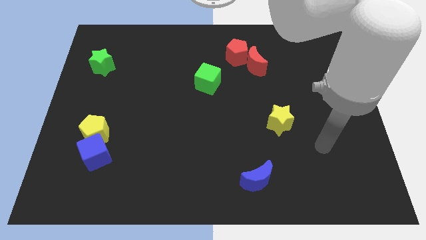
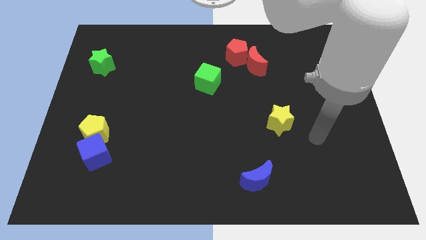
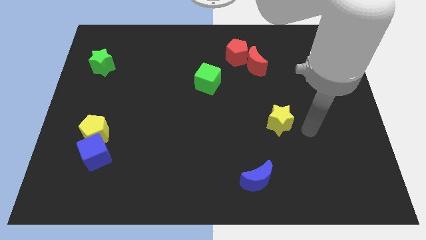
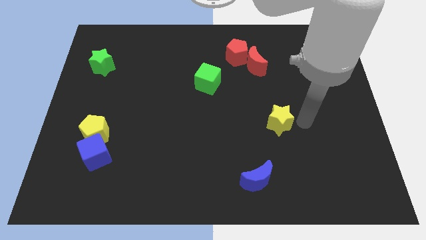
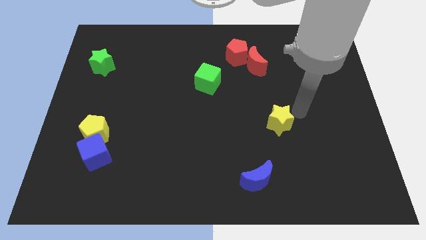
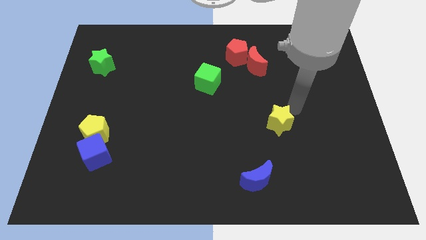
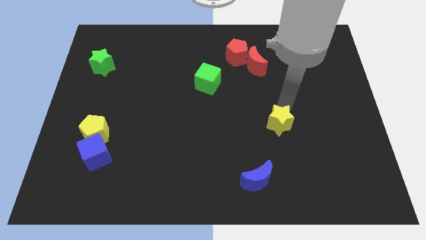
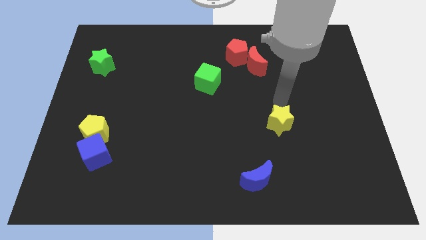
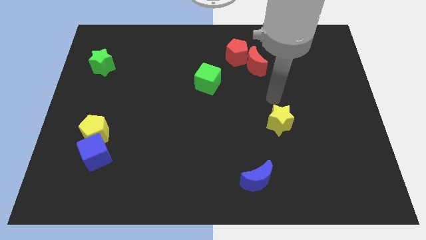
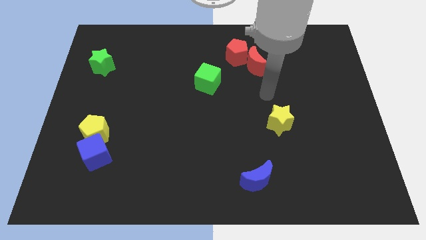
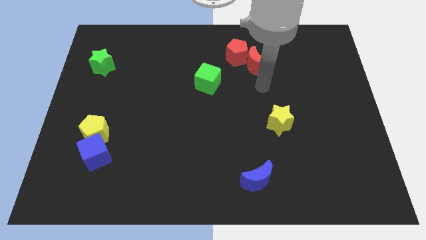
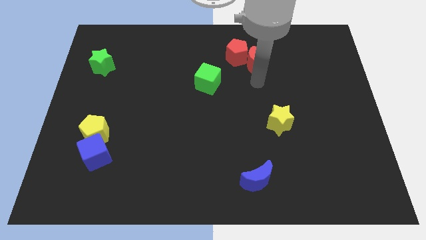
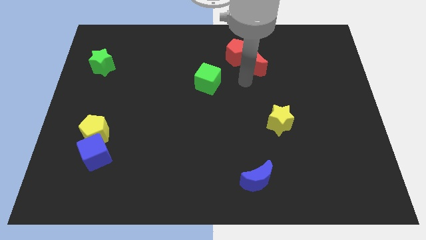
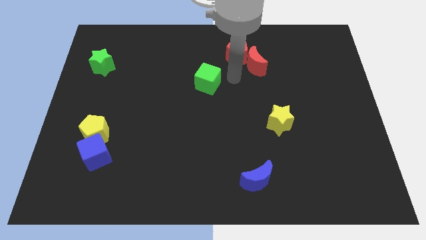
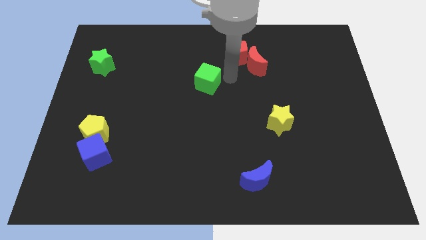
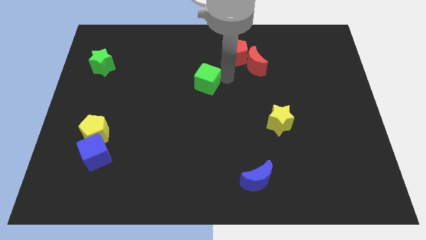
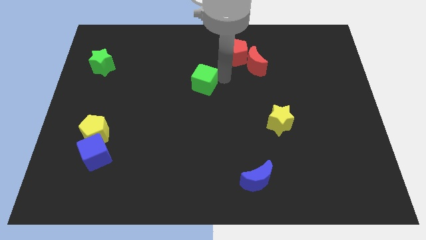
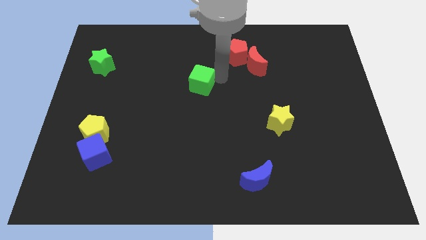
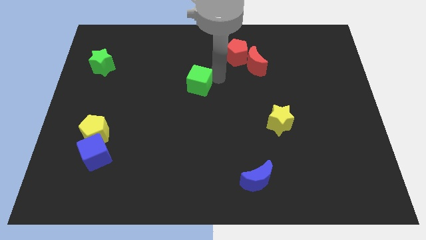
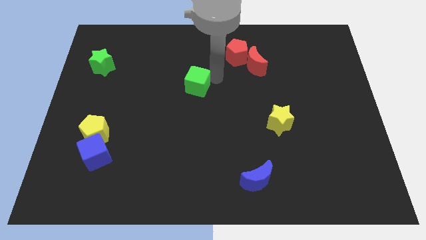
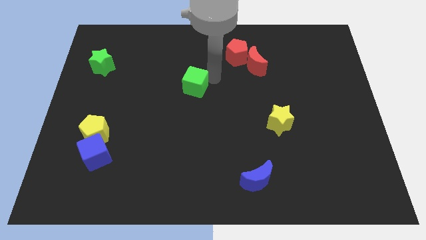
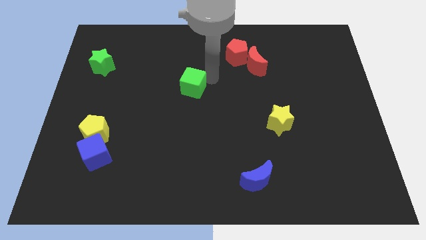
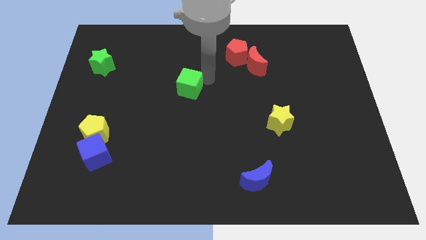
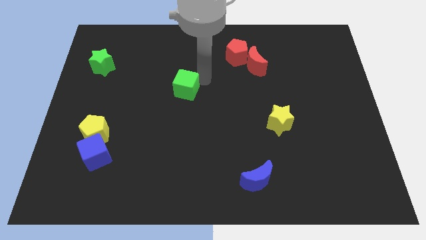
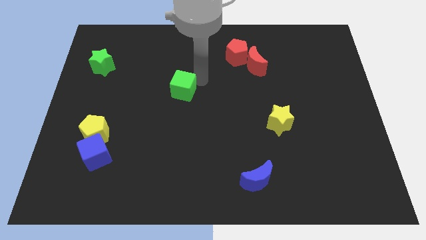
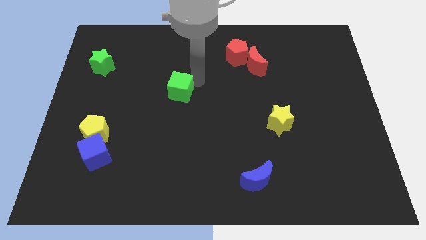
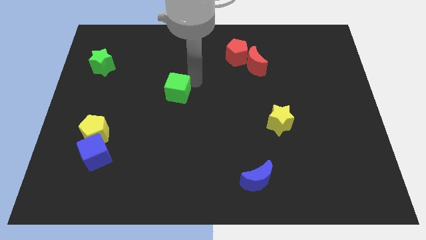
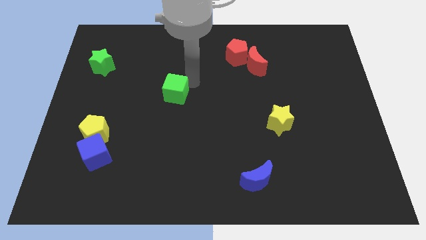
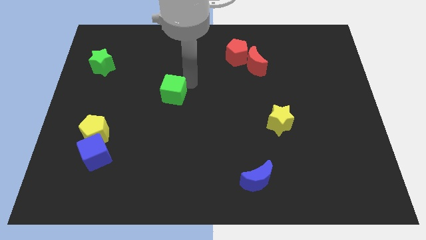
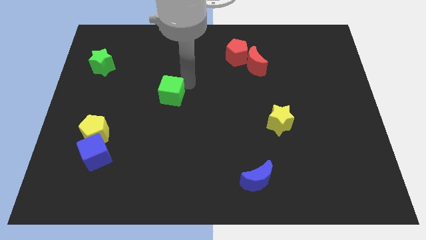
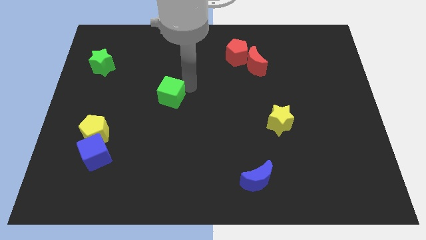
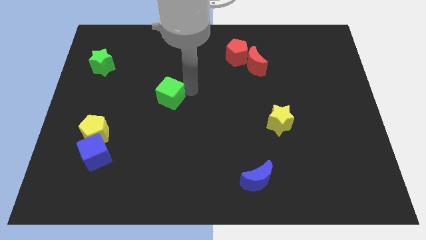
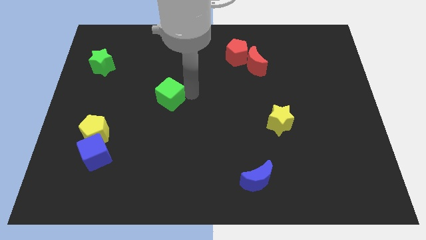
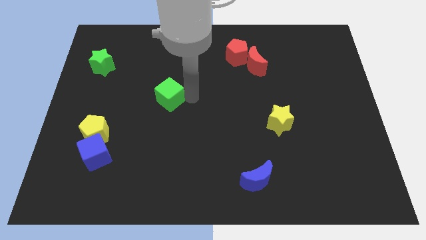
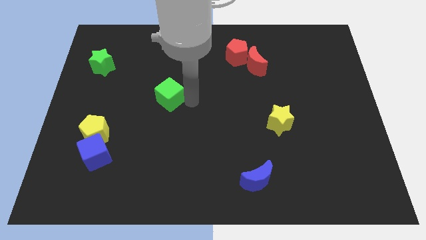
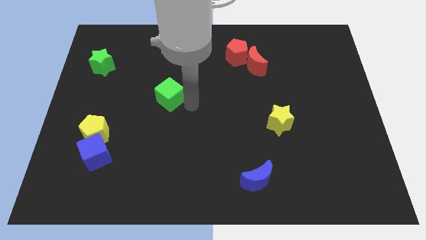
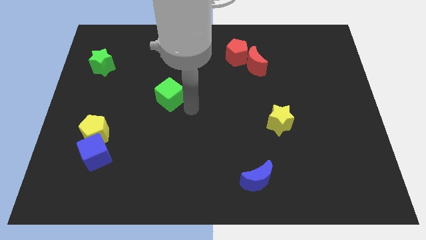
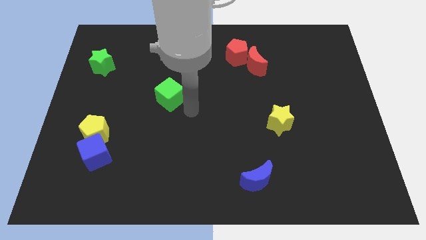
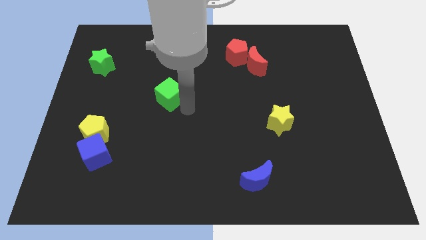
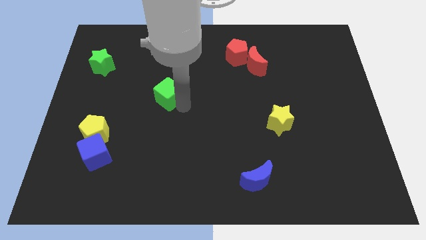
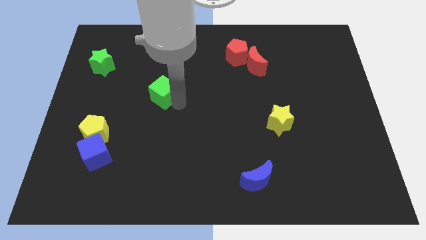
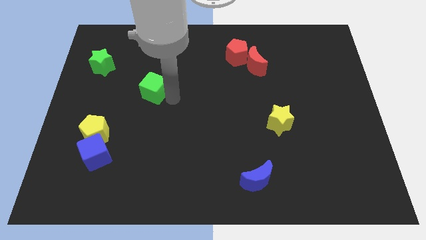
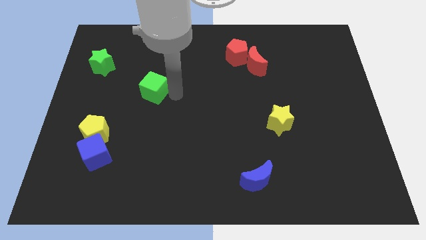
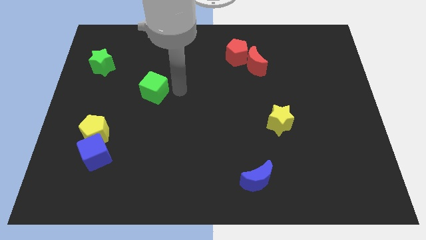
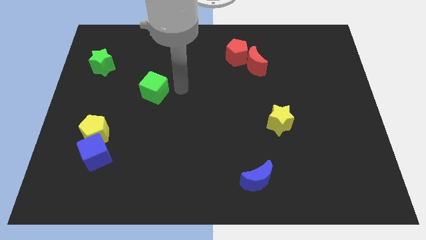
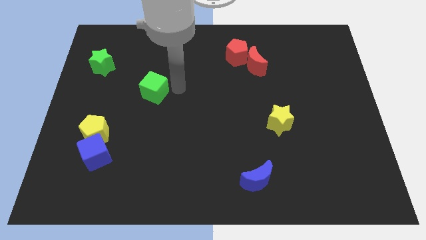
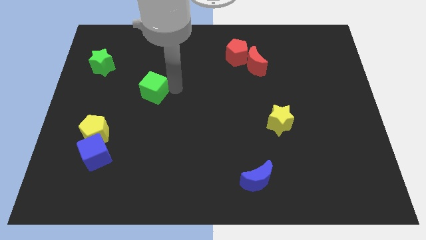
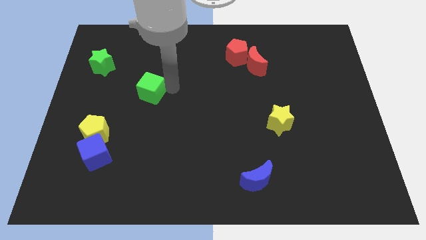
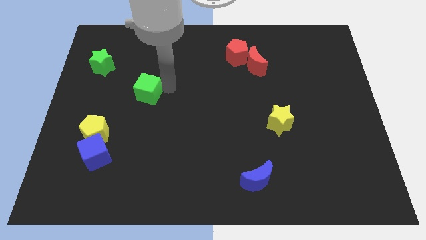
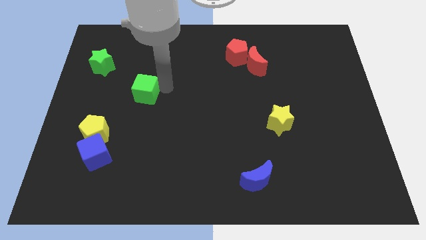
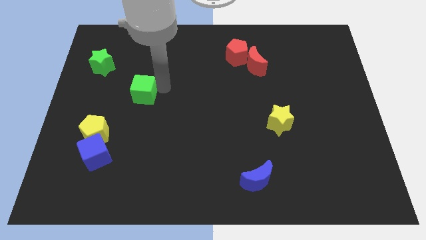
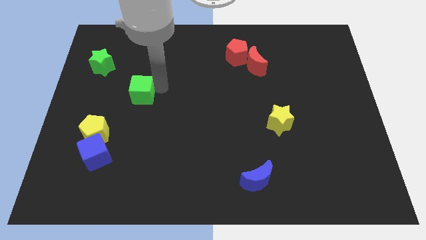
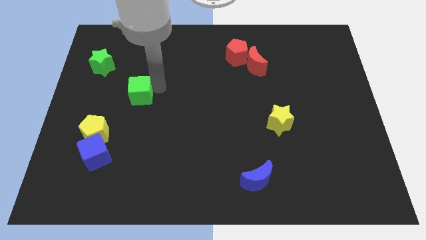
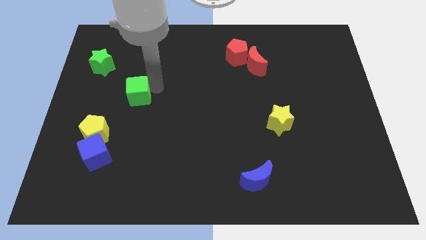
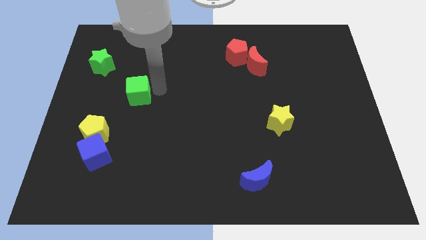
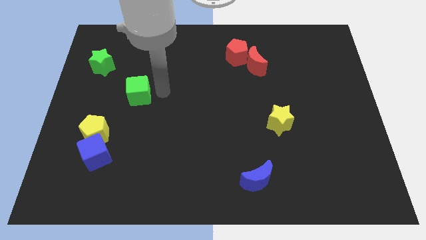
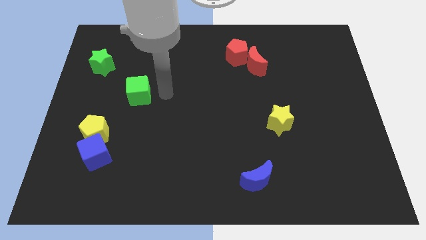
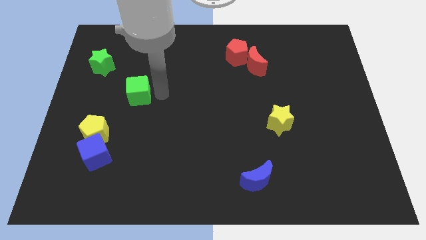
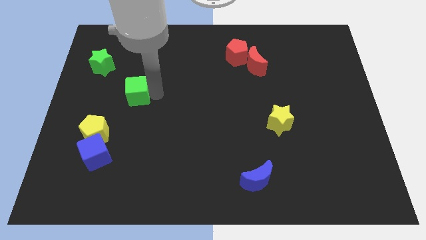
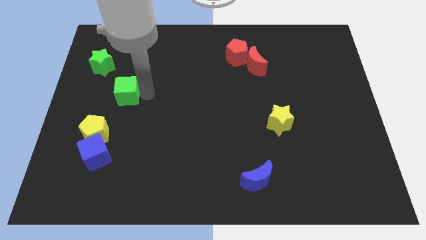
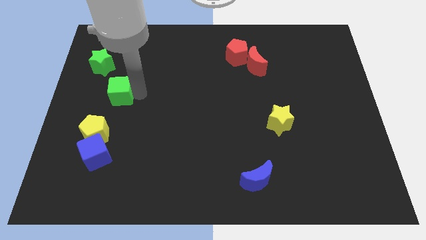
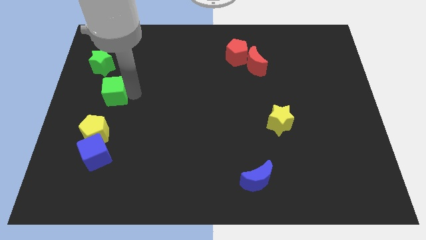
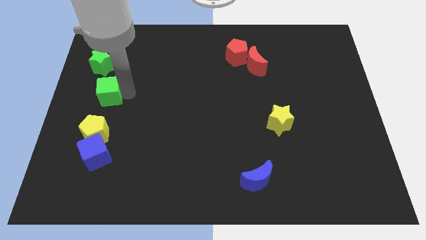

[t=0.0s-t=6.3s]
slide the green cube to the center left
